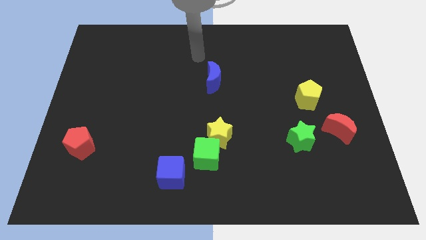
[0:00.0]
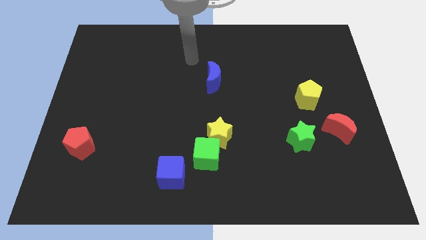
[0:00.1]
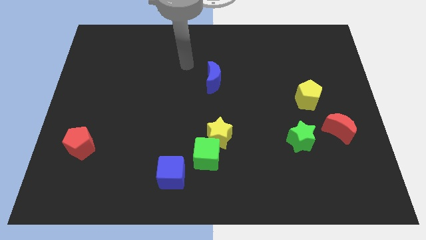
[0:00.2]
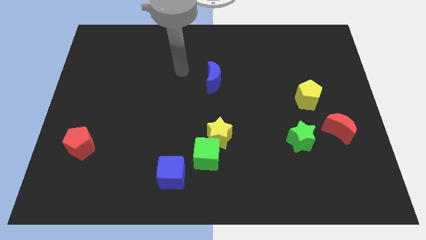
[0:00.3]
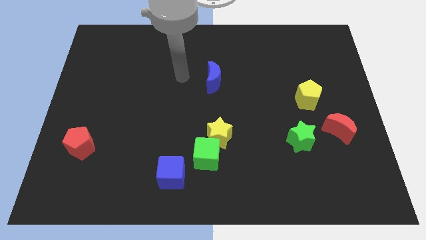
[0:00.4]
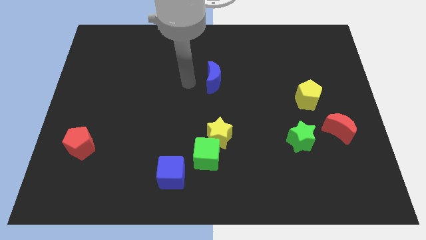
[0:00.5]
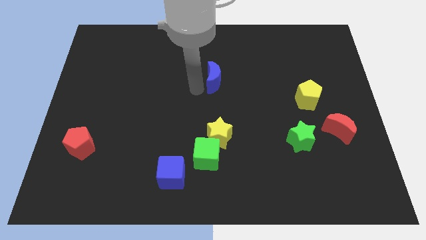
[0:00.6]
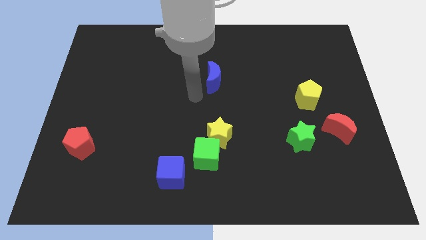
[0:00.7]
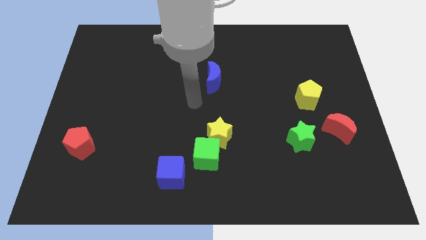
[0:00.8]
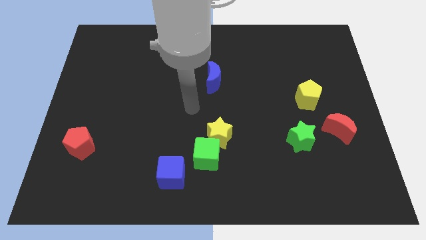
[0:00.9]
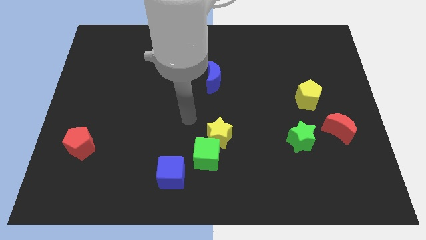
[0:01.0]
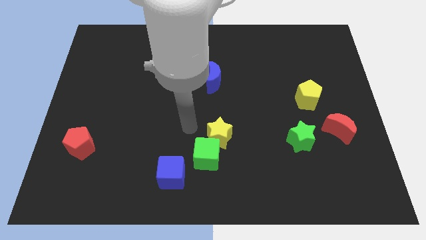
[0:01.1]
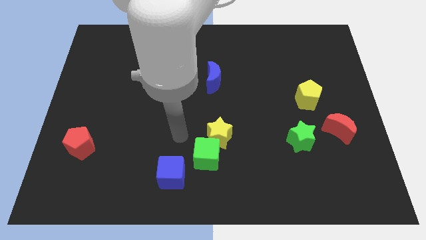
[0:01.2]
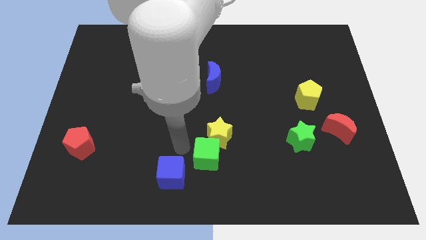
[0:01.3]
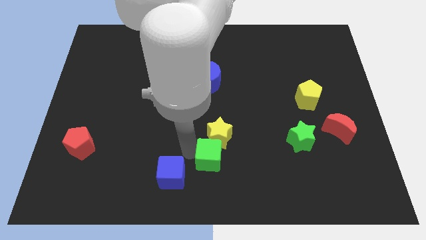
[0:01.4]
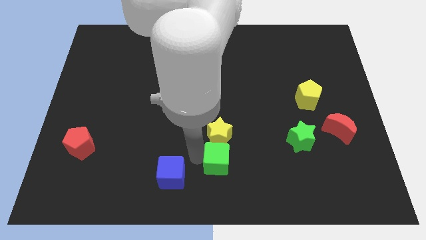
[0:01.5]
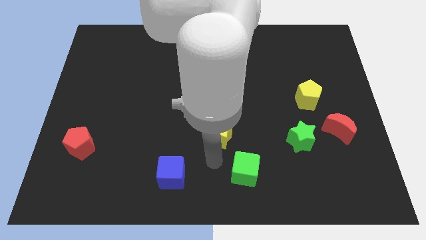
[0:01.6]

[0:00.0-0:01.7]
move the yellow star away from the green cube

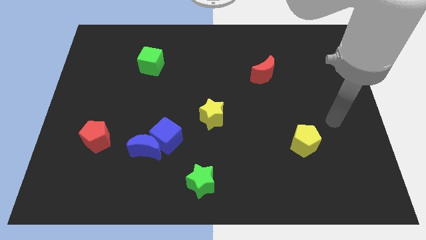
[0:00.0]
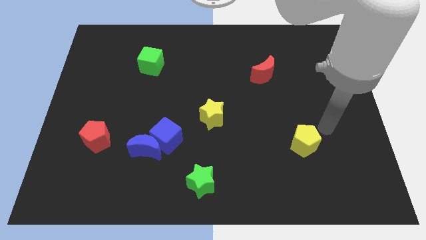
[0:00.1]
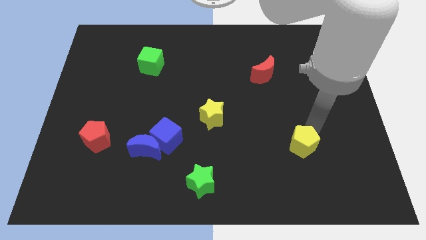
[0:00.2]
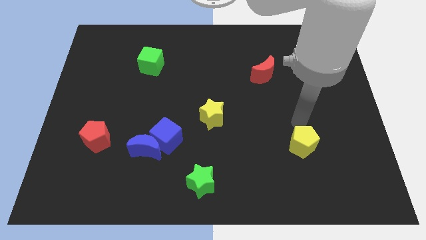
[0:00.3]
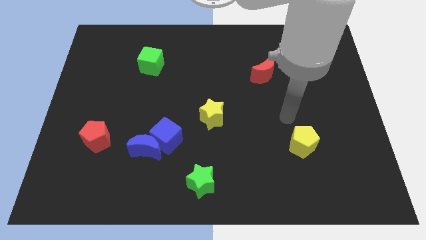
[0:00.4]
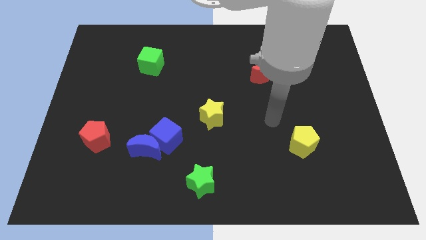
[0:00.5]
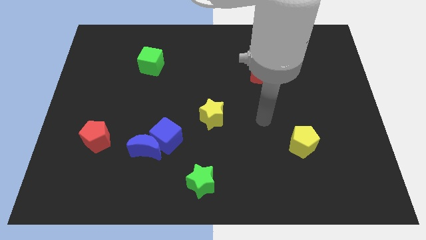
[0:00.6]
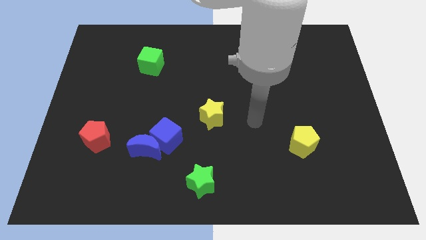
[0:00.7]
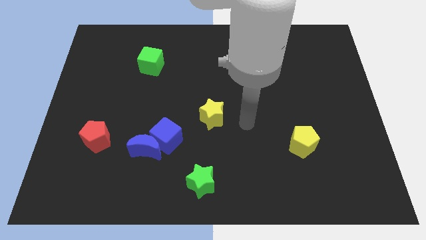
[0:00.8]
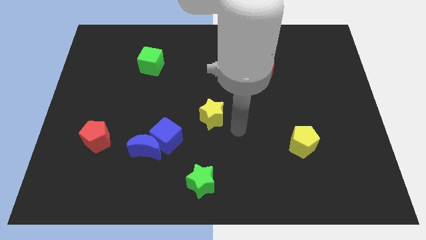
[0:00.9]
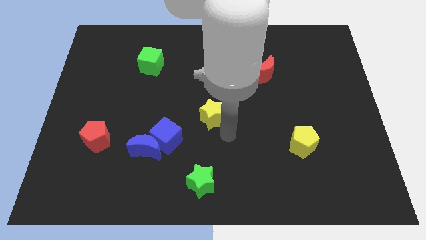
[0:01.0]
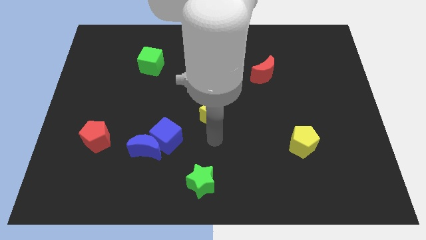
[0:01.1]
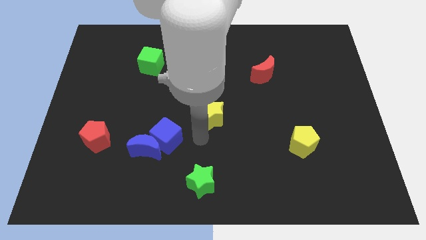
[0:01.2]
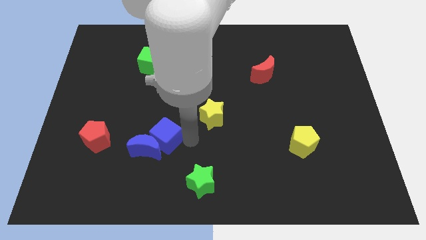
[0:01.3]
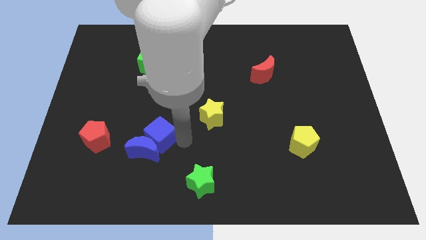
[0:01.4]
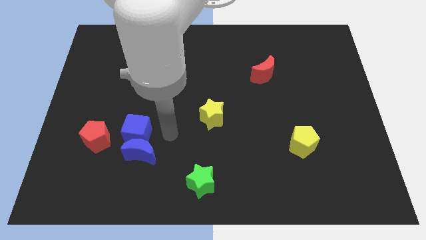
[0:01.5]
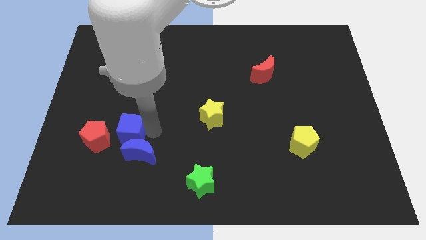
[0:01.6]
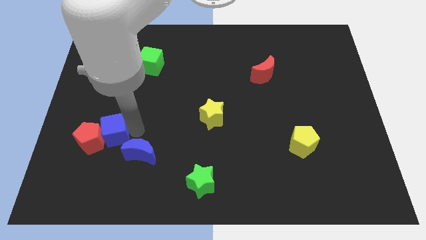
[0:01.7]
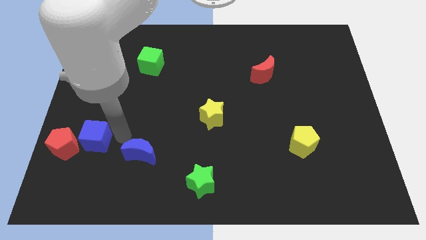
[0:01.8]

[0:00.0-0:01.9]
pull the blue moon apart from the blue cube

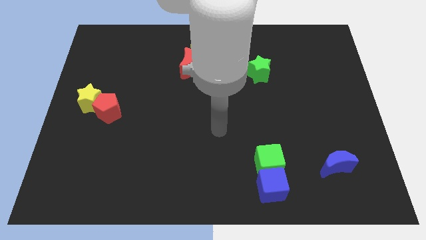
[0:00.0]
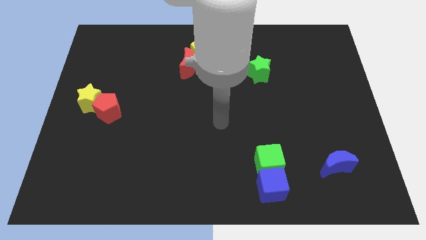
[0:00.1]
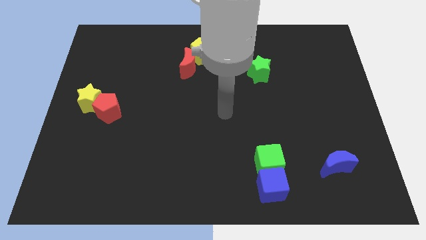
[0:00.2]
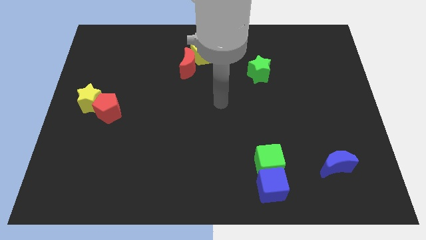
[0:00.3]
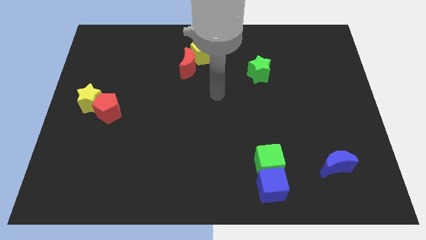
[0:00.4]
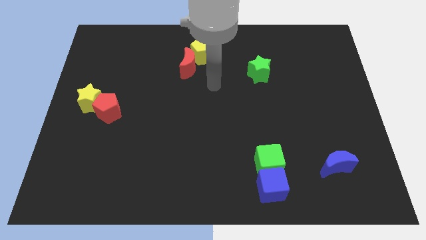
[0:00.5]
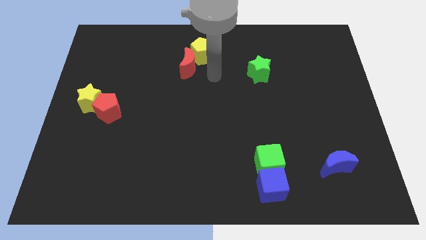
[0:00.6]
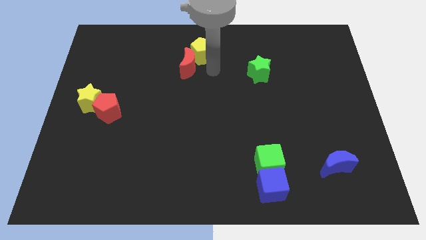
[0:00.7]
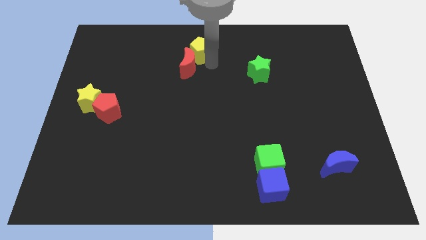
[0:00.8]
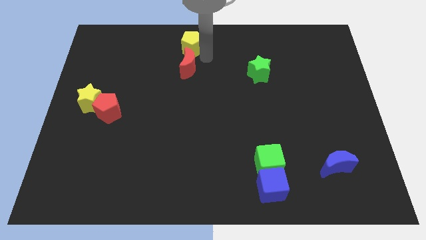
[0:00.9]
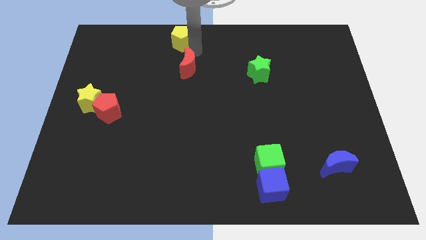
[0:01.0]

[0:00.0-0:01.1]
separate the red moon from the yellow pentagon

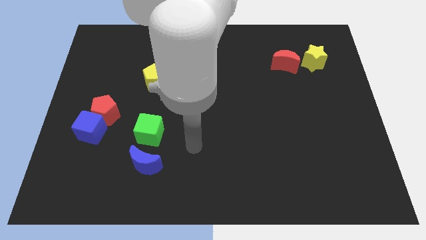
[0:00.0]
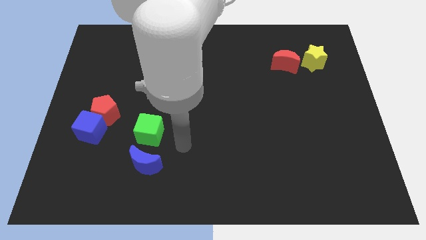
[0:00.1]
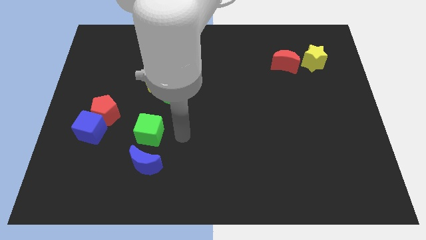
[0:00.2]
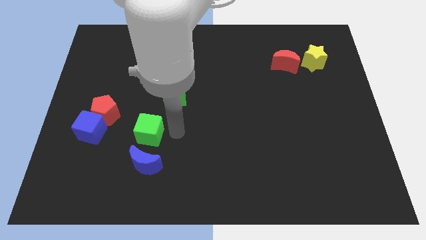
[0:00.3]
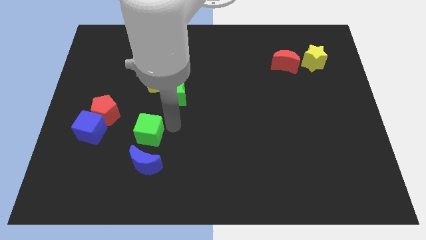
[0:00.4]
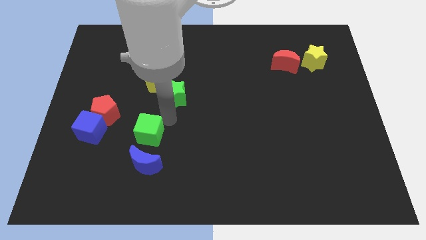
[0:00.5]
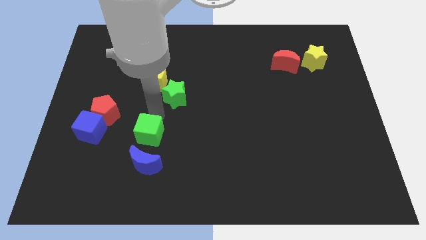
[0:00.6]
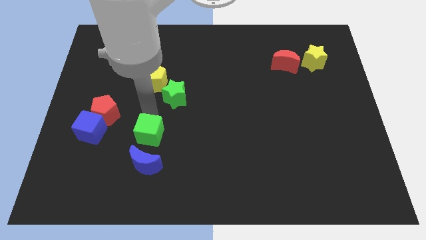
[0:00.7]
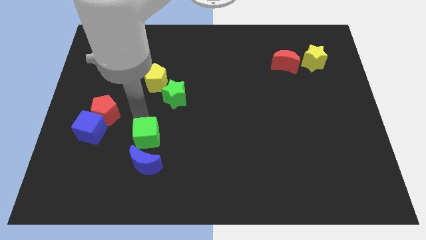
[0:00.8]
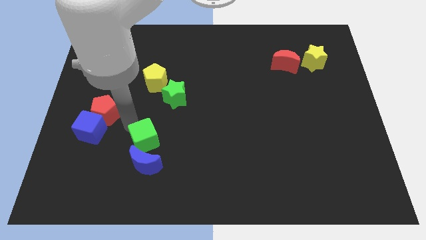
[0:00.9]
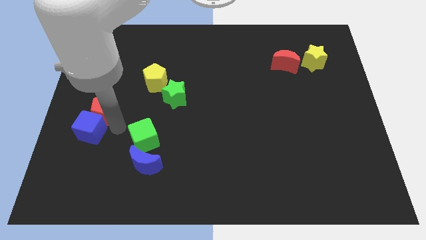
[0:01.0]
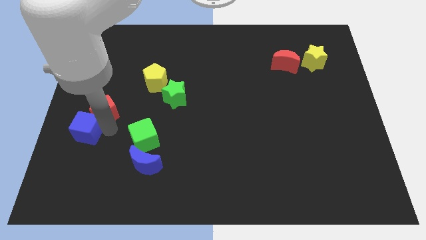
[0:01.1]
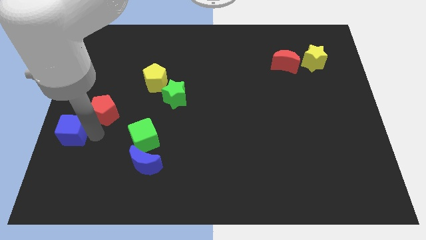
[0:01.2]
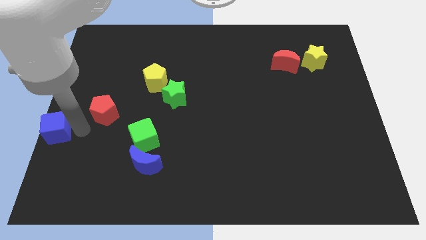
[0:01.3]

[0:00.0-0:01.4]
pull the red pentagon apart from the blue cube

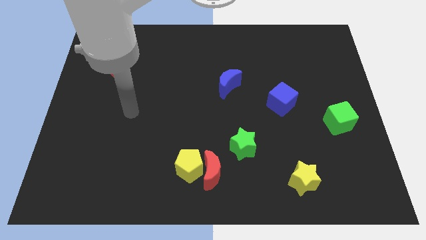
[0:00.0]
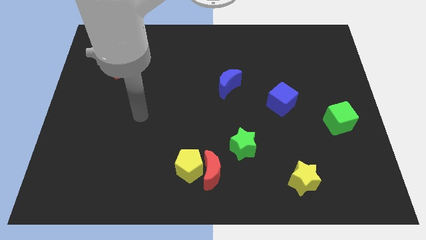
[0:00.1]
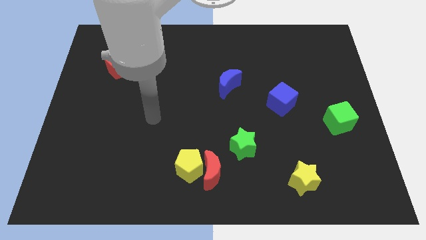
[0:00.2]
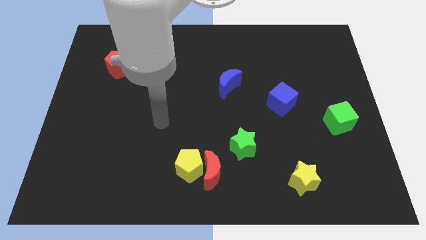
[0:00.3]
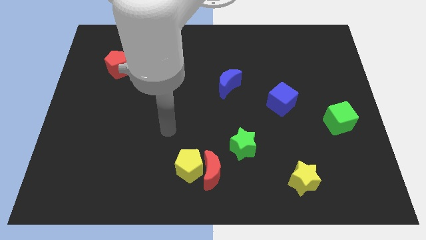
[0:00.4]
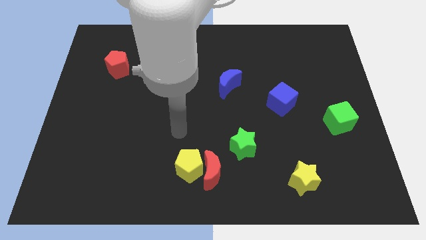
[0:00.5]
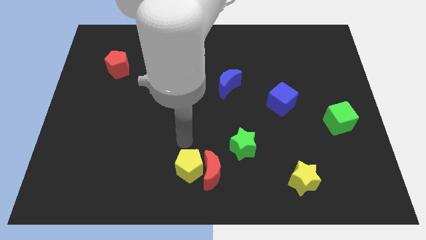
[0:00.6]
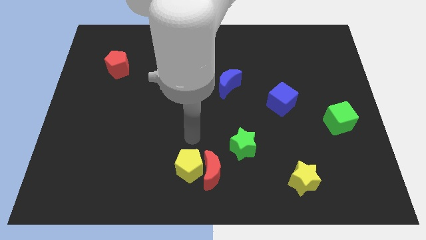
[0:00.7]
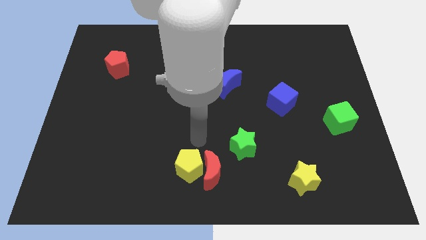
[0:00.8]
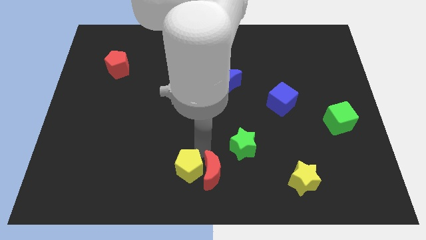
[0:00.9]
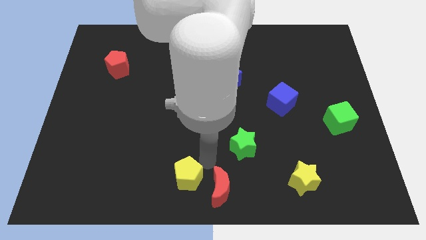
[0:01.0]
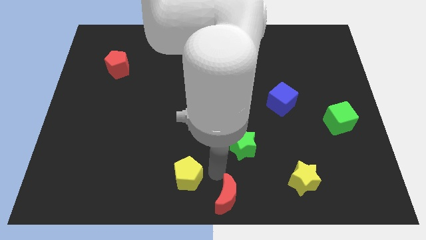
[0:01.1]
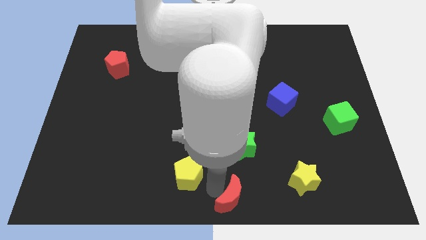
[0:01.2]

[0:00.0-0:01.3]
move the yellow pentagon away from the red moon

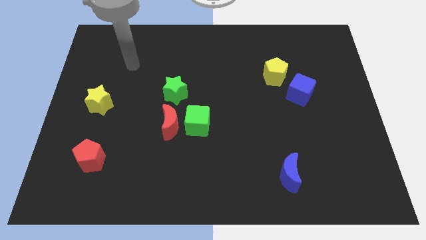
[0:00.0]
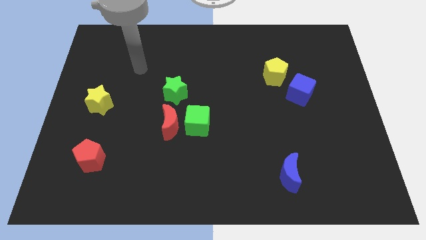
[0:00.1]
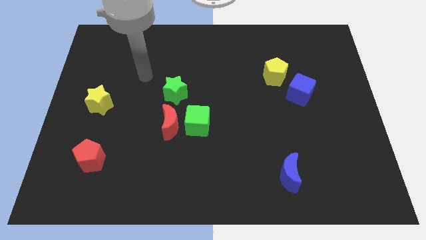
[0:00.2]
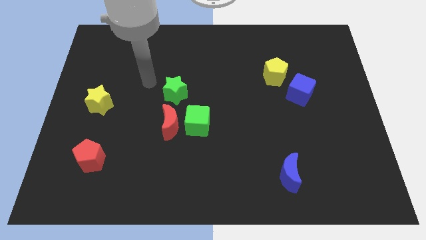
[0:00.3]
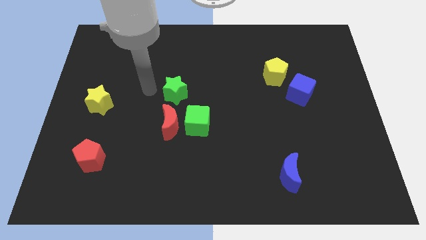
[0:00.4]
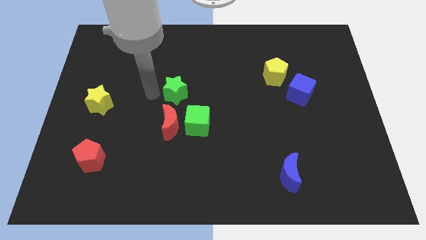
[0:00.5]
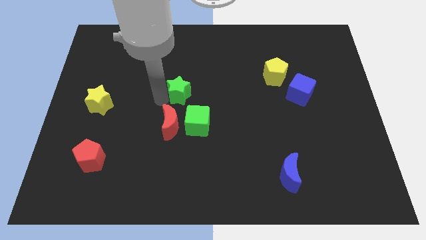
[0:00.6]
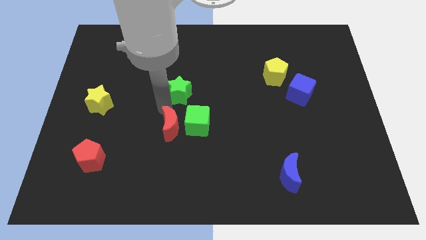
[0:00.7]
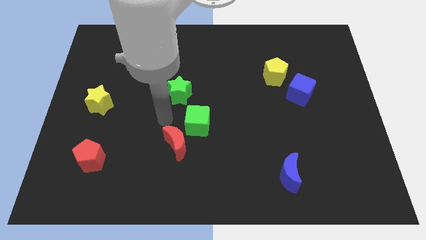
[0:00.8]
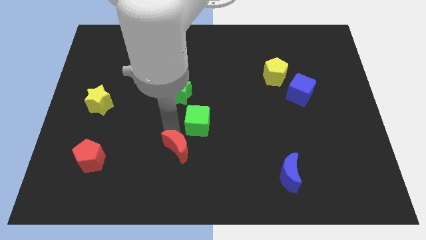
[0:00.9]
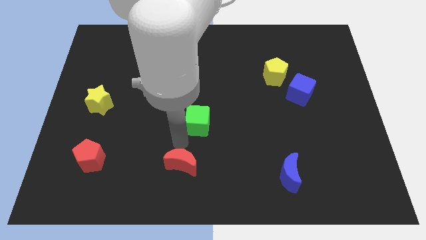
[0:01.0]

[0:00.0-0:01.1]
pull the green cube apart from the red moon

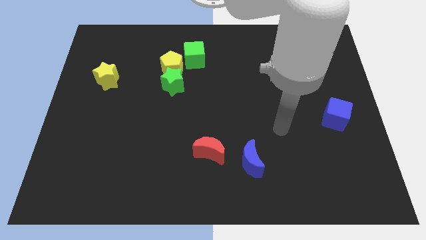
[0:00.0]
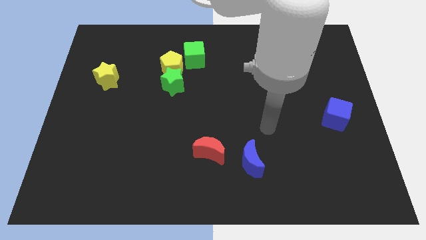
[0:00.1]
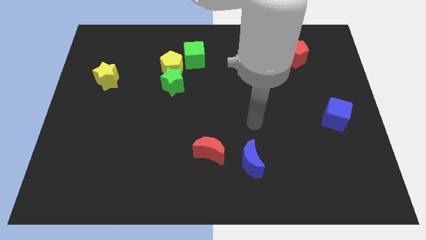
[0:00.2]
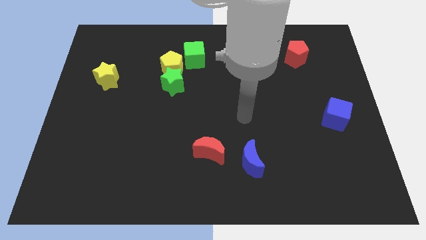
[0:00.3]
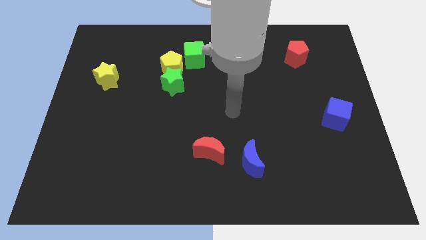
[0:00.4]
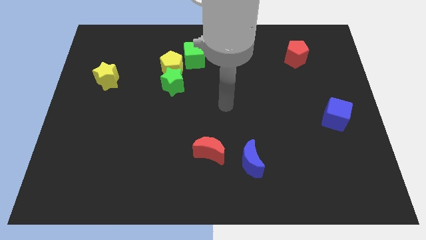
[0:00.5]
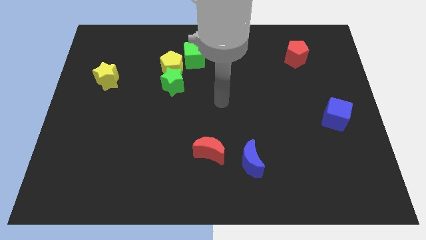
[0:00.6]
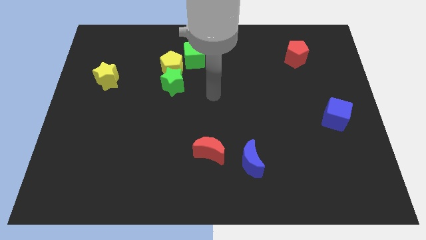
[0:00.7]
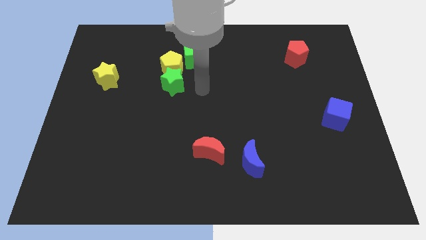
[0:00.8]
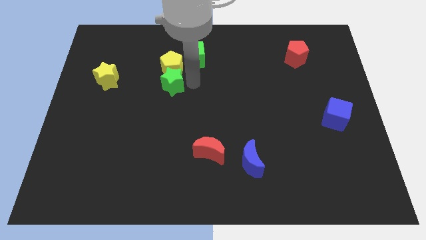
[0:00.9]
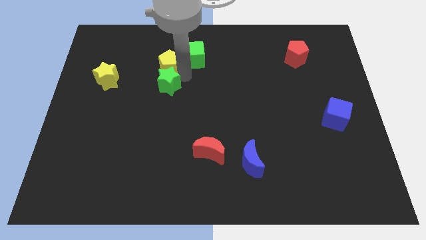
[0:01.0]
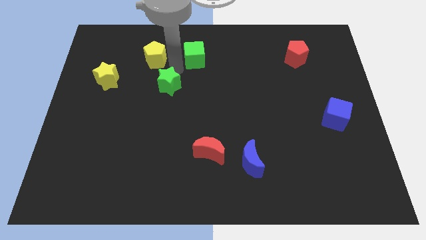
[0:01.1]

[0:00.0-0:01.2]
separate the green star from the yellow pentagon
